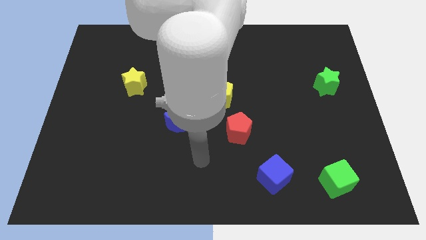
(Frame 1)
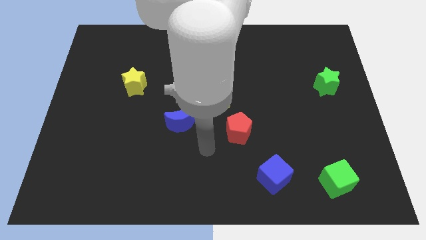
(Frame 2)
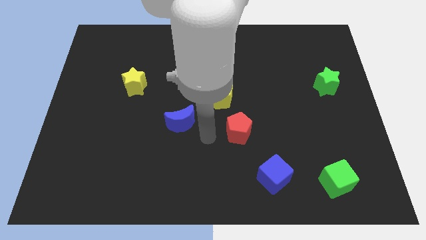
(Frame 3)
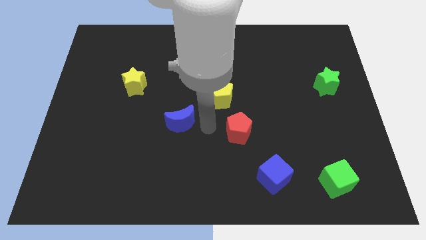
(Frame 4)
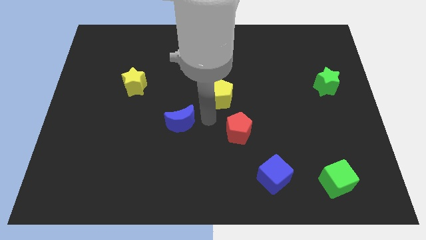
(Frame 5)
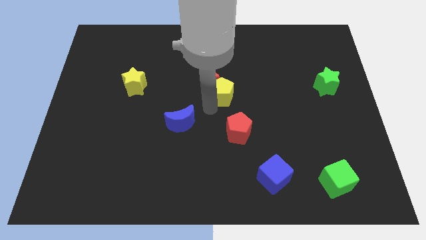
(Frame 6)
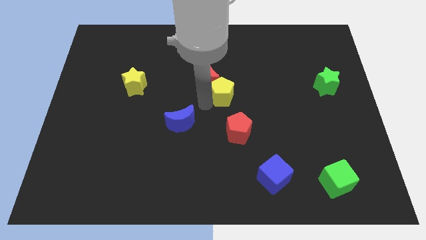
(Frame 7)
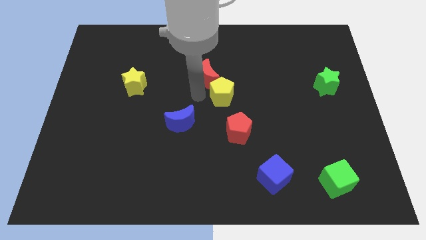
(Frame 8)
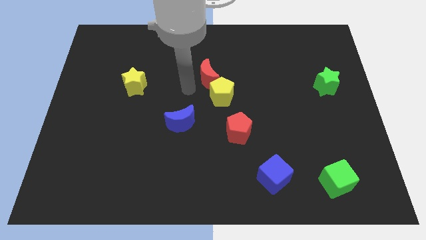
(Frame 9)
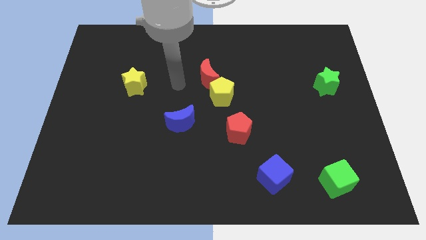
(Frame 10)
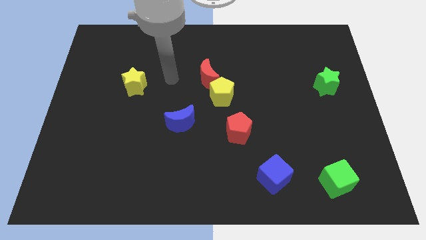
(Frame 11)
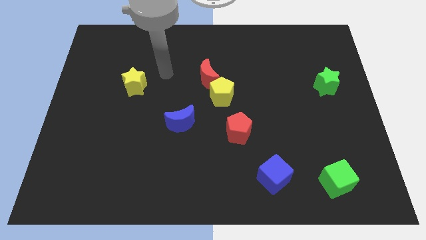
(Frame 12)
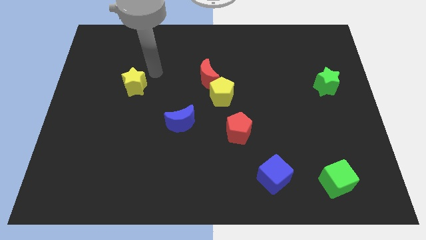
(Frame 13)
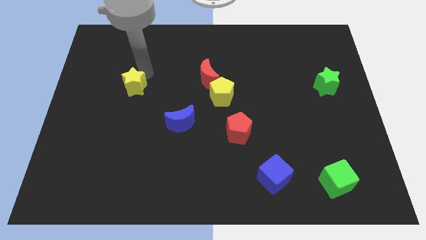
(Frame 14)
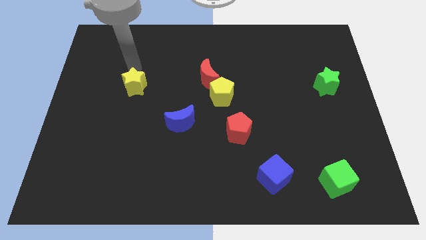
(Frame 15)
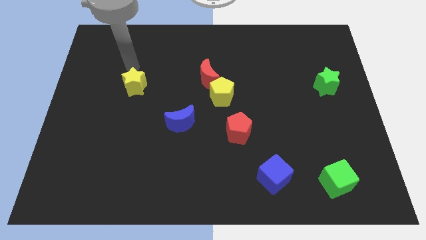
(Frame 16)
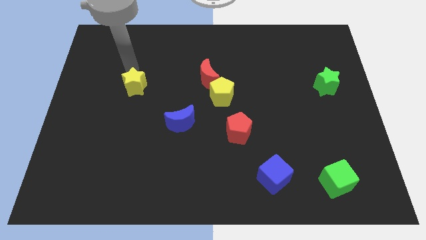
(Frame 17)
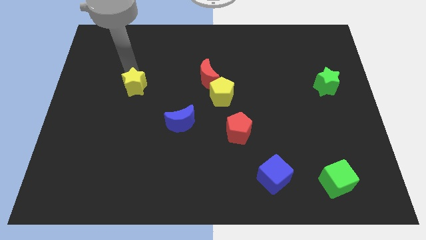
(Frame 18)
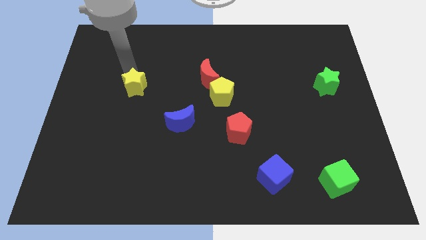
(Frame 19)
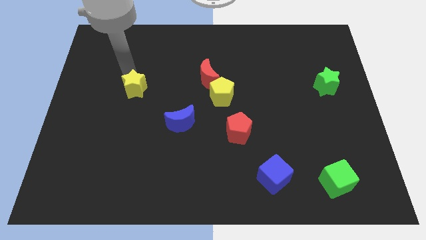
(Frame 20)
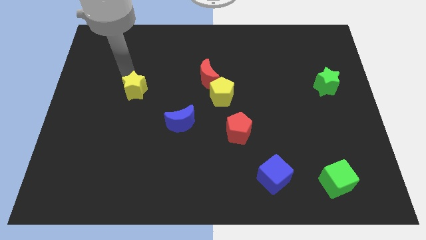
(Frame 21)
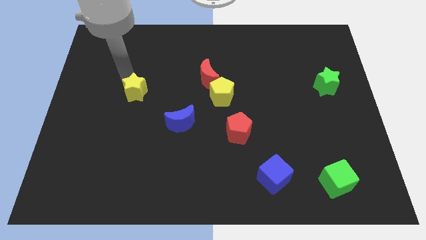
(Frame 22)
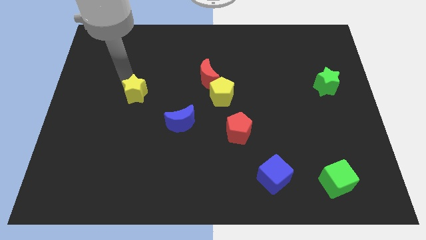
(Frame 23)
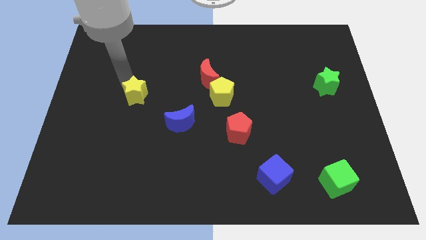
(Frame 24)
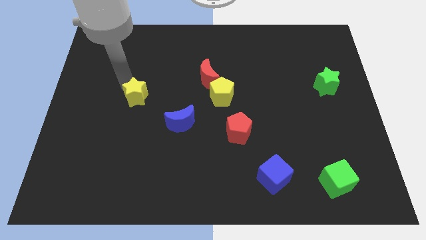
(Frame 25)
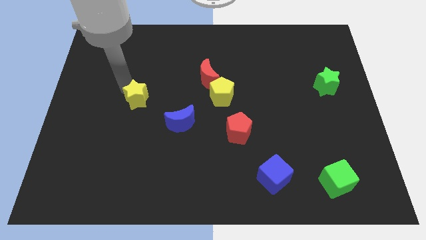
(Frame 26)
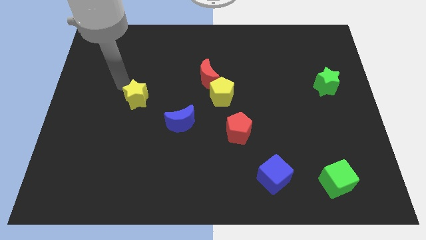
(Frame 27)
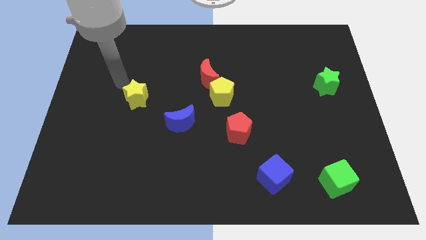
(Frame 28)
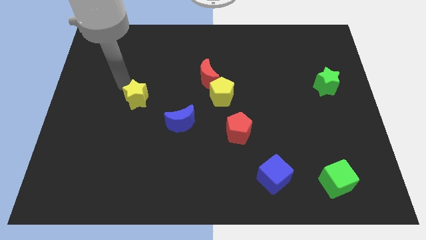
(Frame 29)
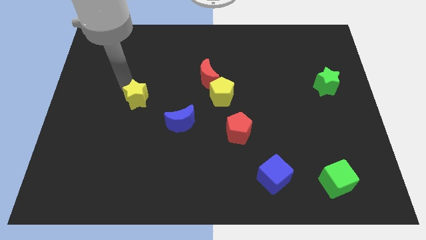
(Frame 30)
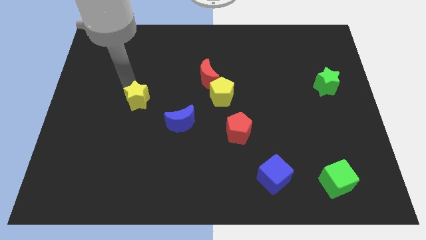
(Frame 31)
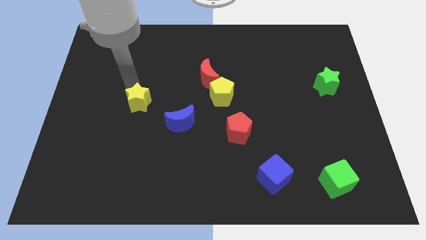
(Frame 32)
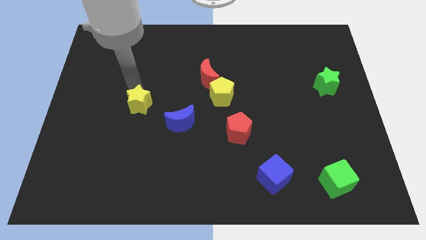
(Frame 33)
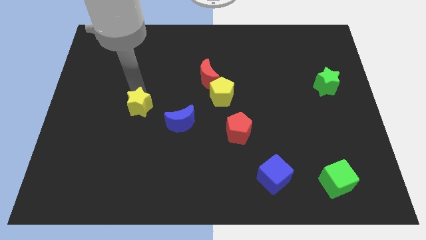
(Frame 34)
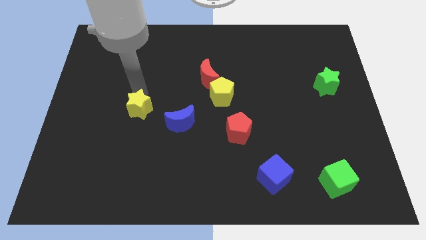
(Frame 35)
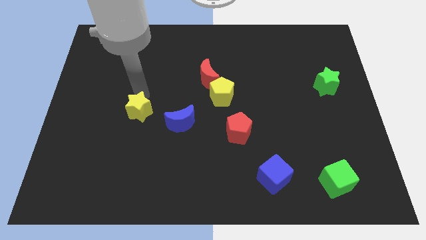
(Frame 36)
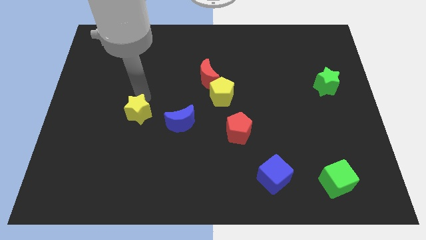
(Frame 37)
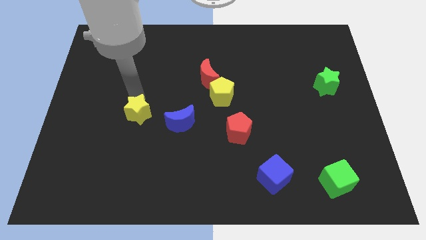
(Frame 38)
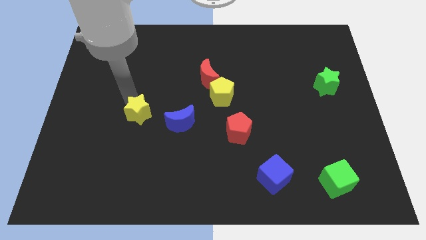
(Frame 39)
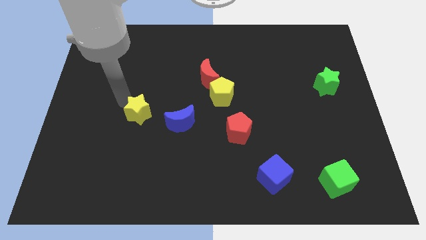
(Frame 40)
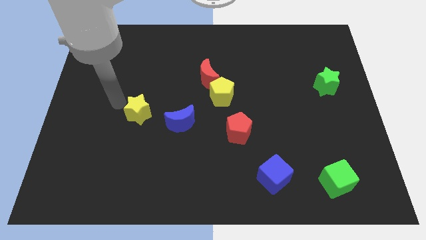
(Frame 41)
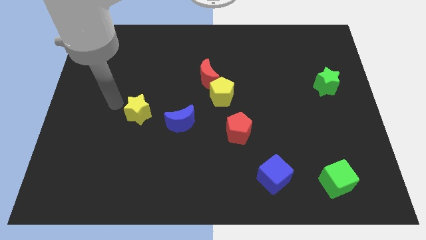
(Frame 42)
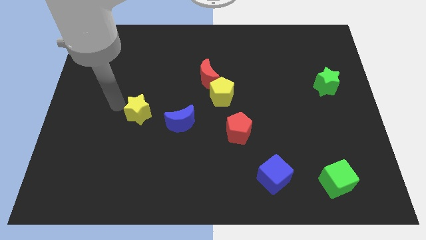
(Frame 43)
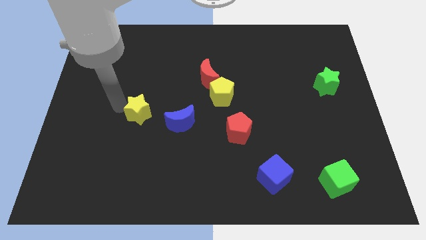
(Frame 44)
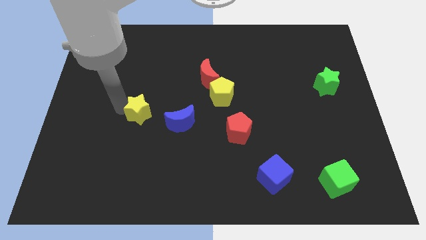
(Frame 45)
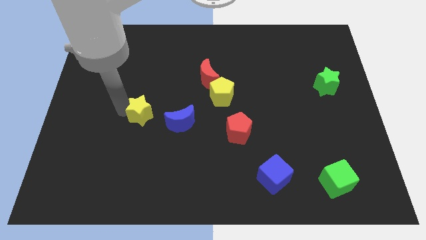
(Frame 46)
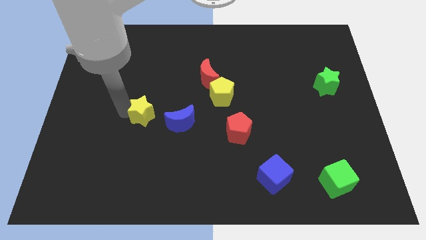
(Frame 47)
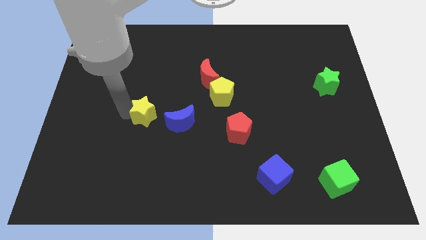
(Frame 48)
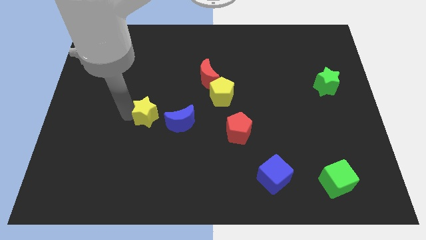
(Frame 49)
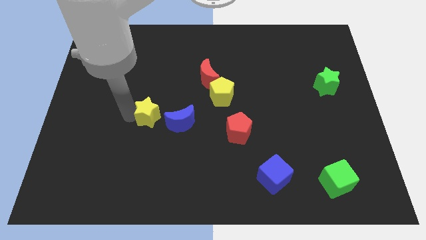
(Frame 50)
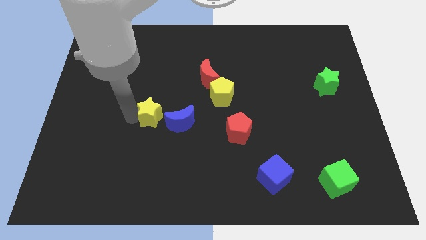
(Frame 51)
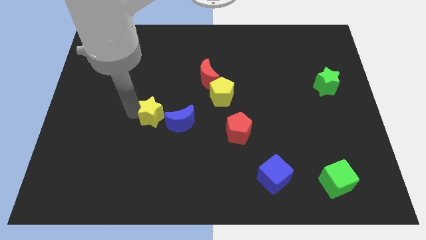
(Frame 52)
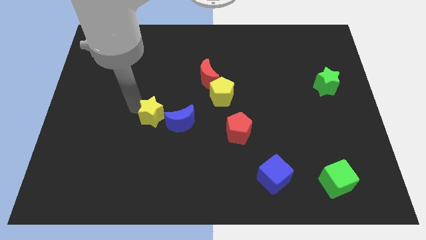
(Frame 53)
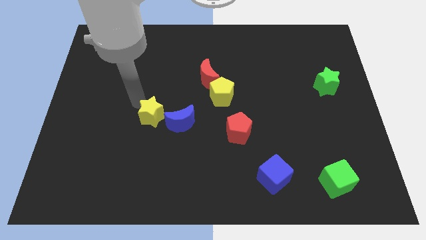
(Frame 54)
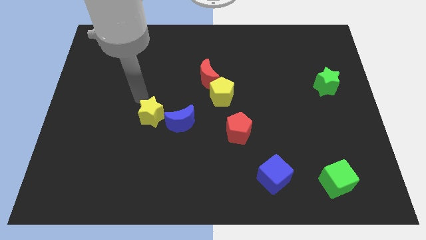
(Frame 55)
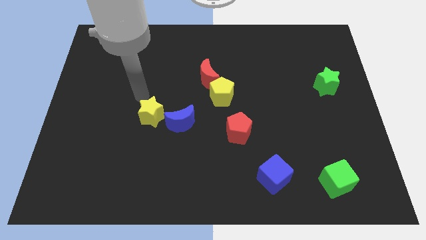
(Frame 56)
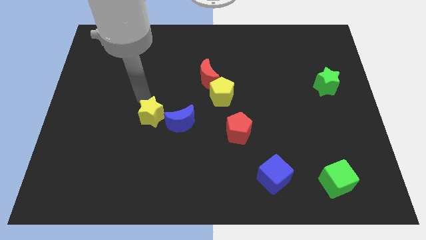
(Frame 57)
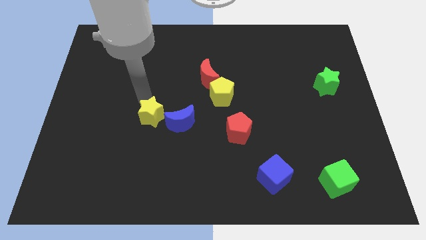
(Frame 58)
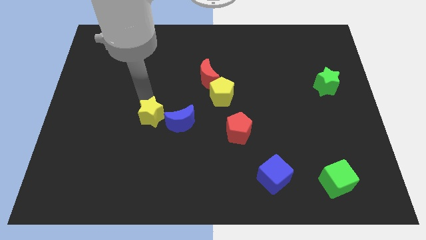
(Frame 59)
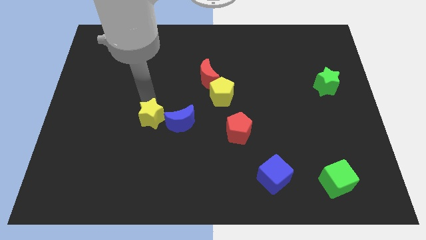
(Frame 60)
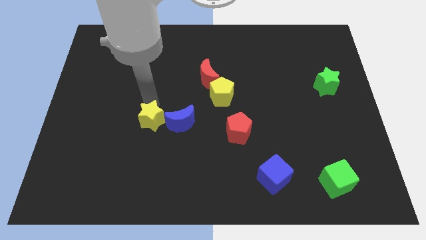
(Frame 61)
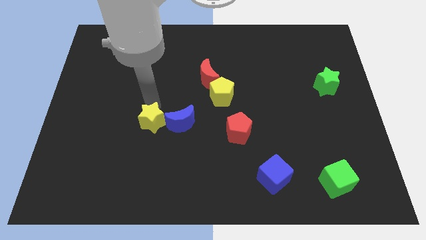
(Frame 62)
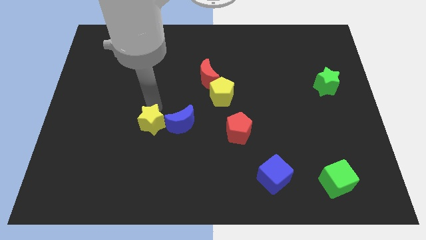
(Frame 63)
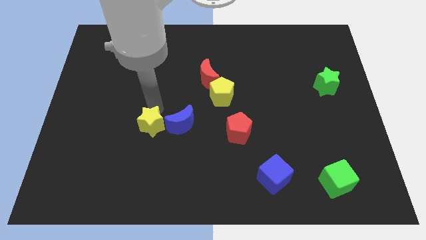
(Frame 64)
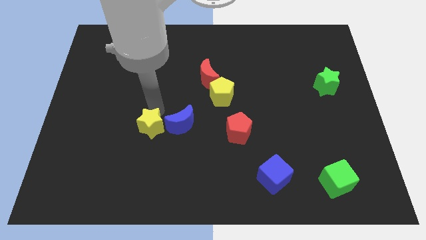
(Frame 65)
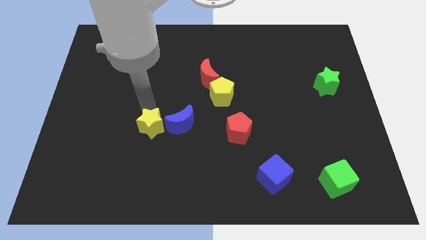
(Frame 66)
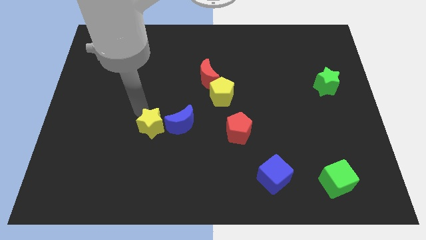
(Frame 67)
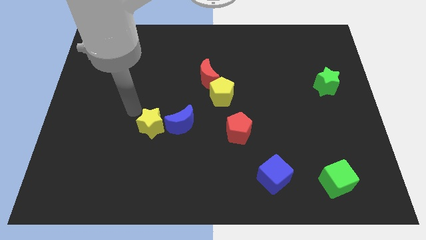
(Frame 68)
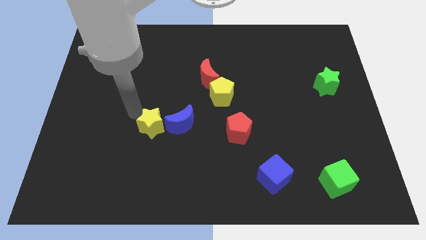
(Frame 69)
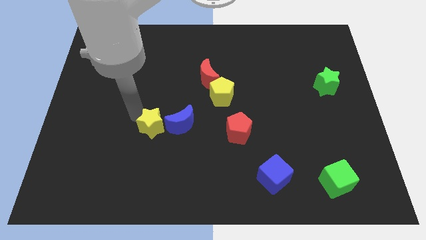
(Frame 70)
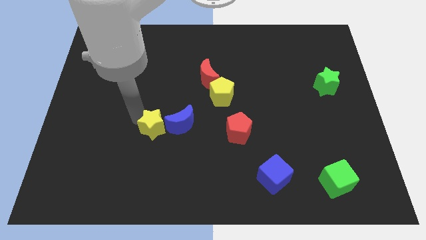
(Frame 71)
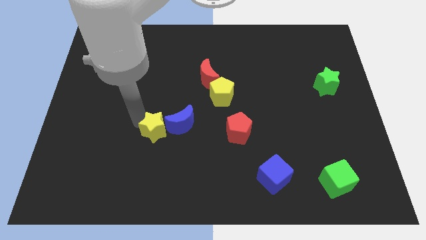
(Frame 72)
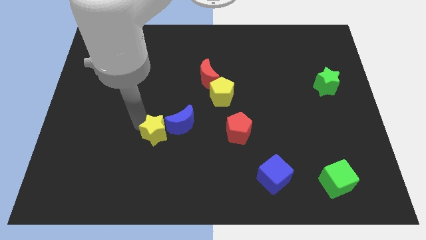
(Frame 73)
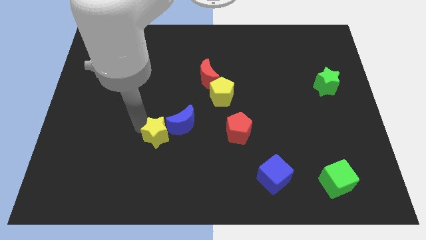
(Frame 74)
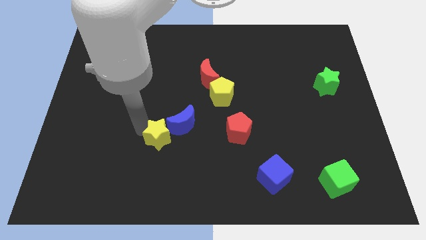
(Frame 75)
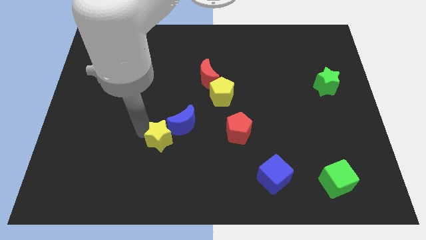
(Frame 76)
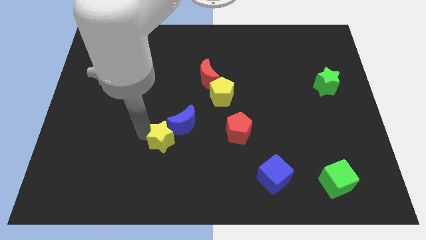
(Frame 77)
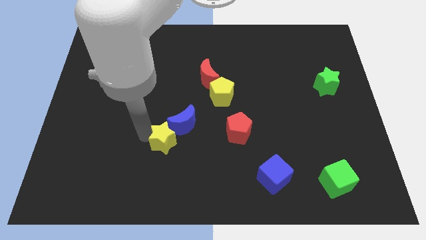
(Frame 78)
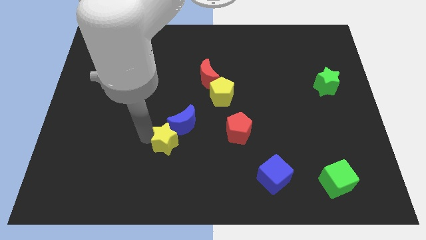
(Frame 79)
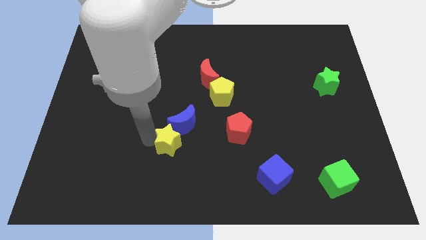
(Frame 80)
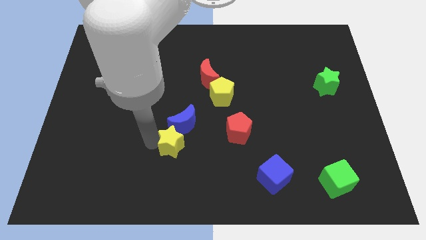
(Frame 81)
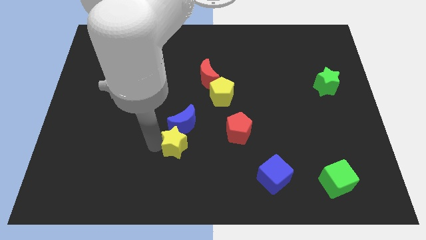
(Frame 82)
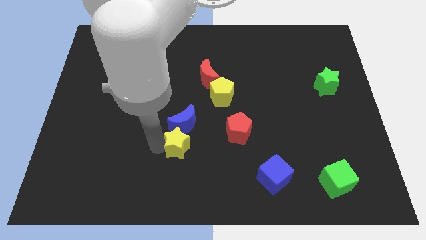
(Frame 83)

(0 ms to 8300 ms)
push the yellow star diagonally down and to the right

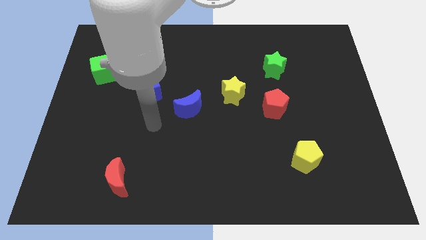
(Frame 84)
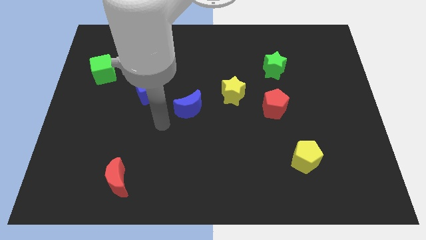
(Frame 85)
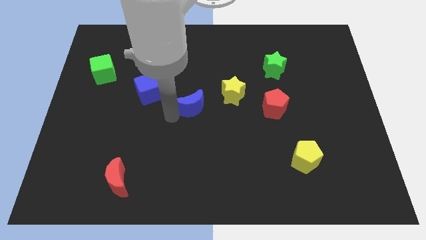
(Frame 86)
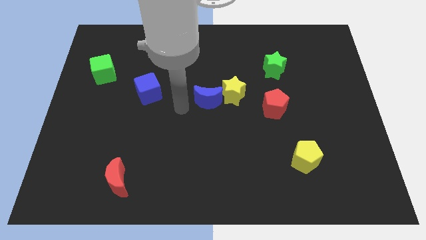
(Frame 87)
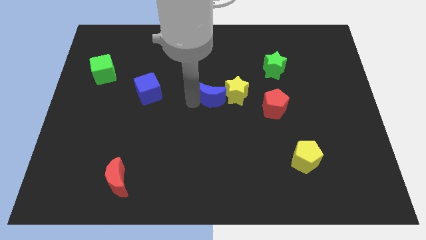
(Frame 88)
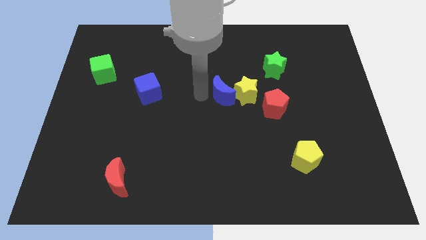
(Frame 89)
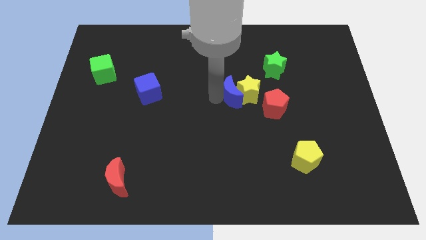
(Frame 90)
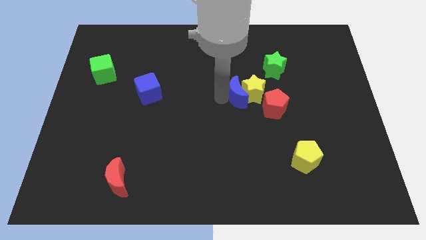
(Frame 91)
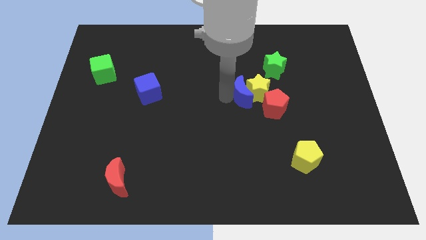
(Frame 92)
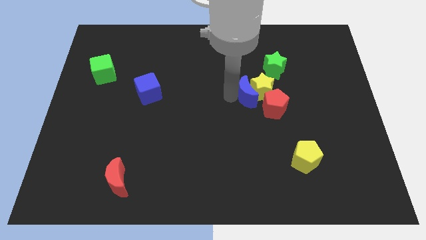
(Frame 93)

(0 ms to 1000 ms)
slightly push the yellow star to the right
